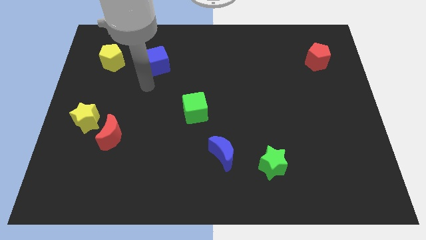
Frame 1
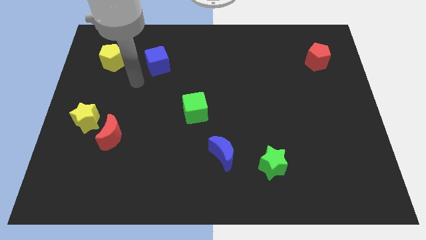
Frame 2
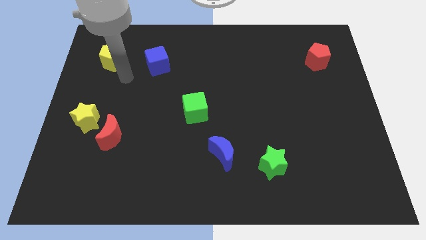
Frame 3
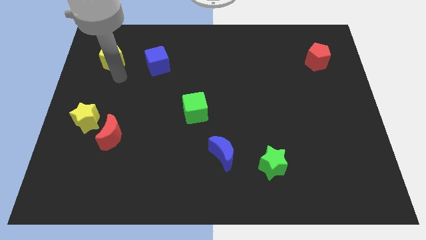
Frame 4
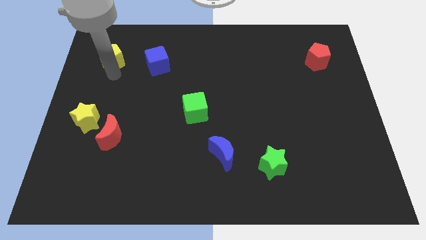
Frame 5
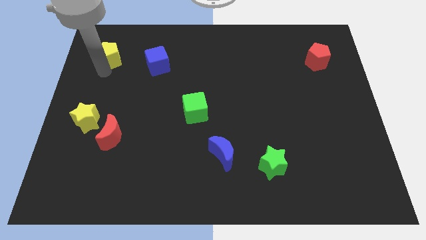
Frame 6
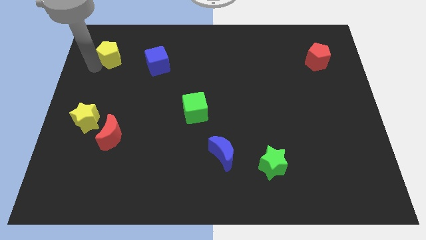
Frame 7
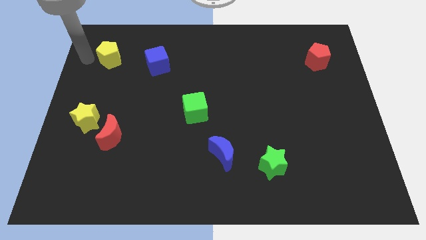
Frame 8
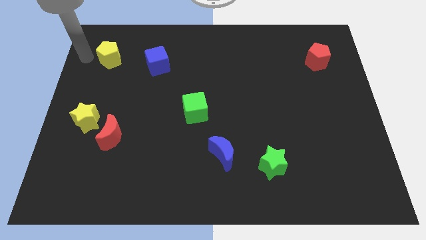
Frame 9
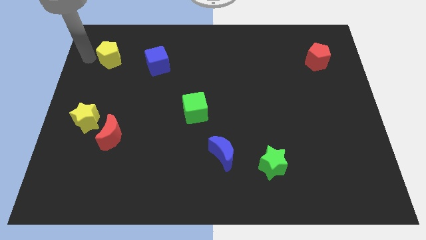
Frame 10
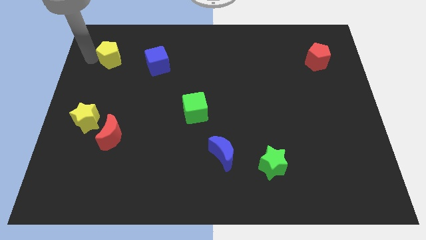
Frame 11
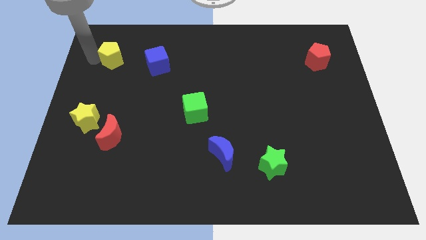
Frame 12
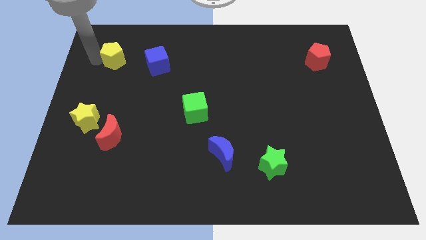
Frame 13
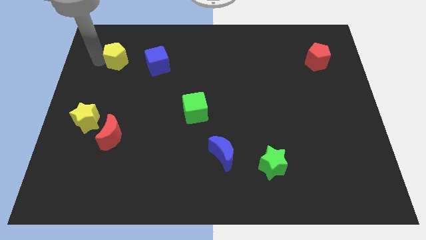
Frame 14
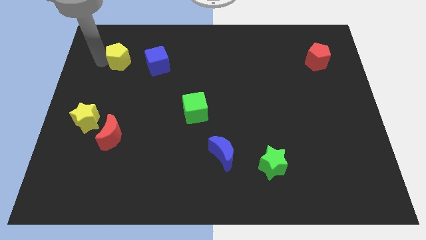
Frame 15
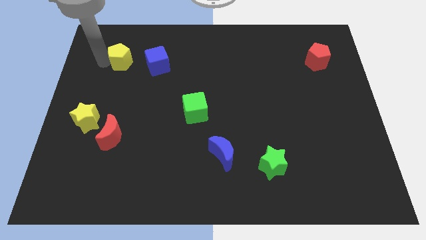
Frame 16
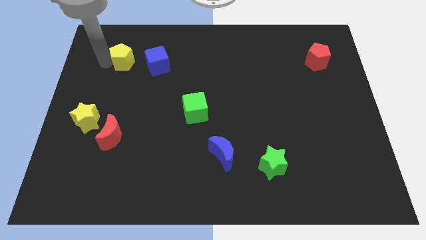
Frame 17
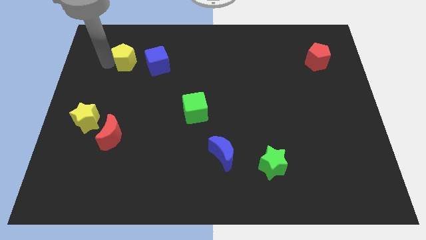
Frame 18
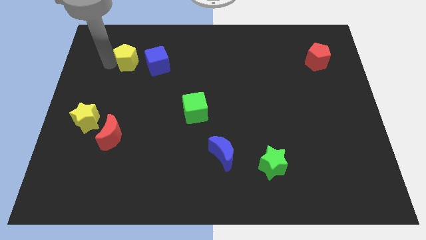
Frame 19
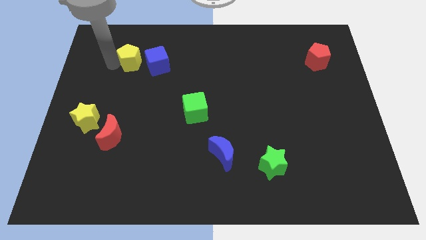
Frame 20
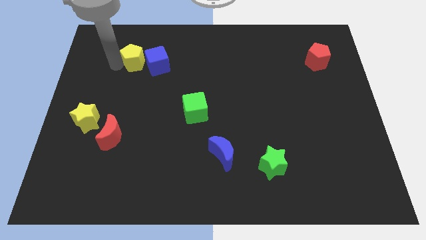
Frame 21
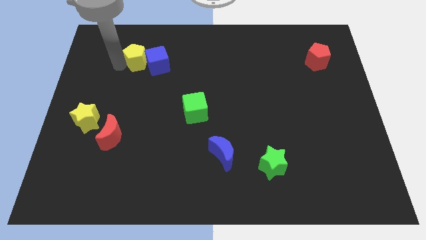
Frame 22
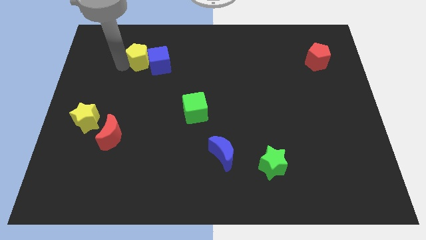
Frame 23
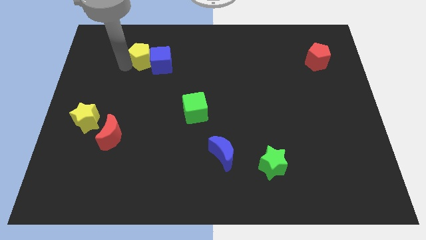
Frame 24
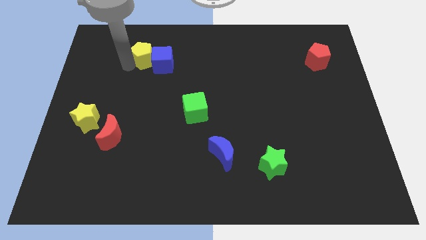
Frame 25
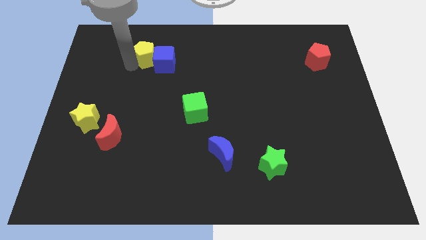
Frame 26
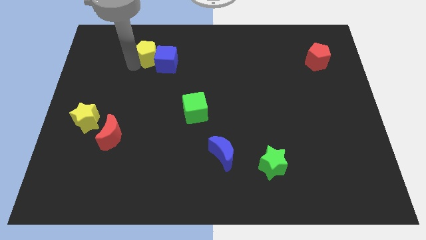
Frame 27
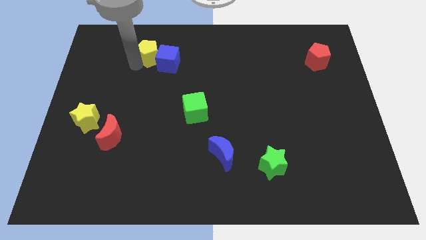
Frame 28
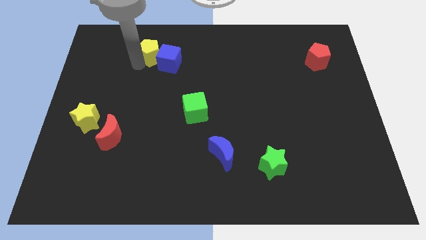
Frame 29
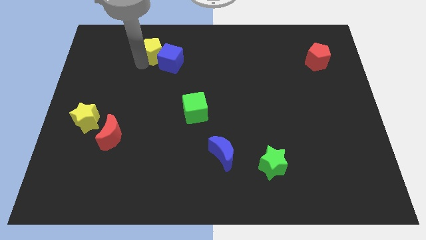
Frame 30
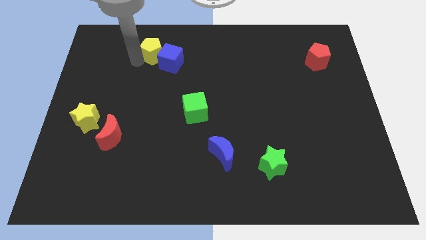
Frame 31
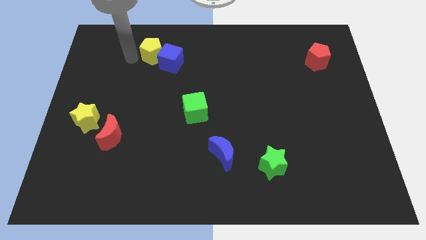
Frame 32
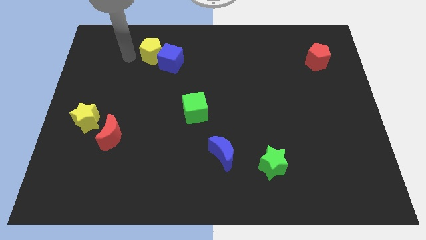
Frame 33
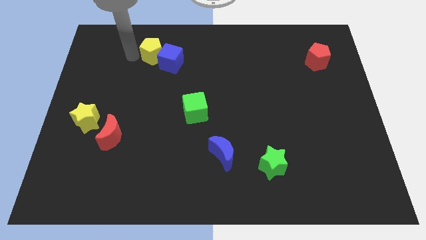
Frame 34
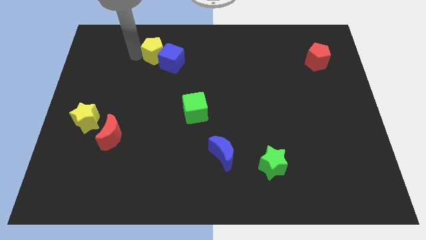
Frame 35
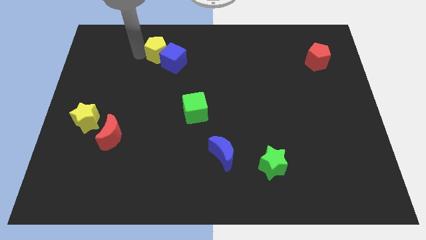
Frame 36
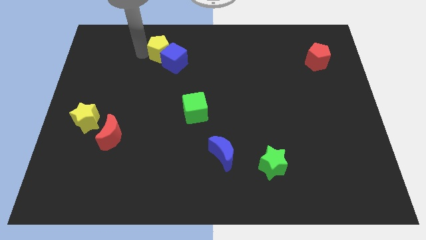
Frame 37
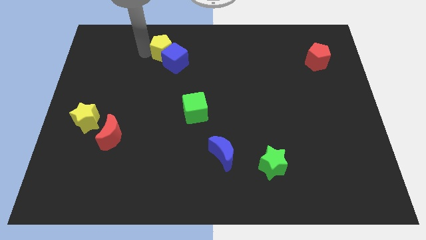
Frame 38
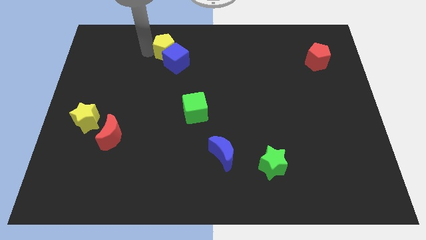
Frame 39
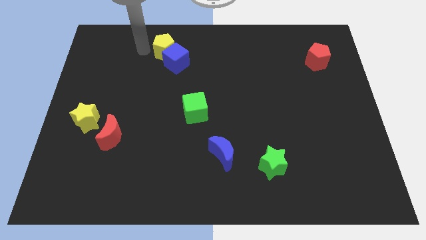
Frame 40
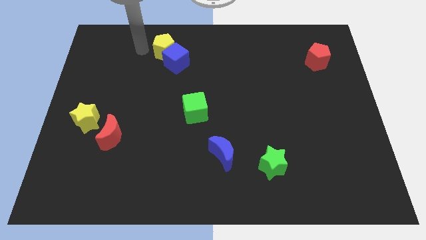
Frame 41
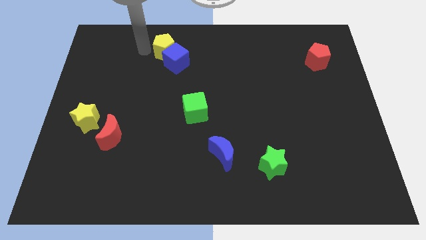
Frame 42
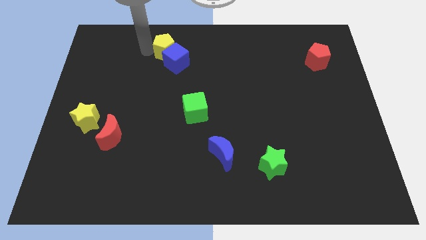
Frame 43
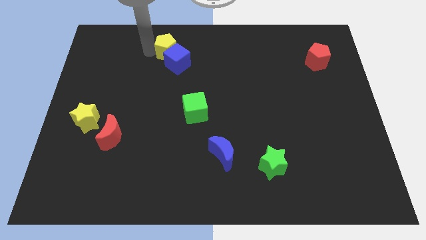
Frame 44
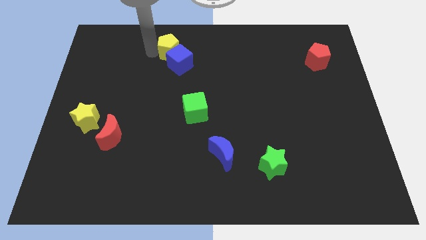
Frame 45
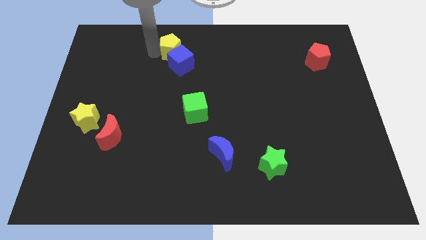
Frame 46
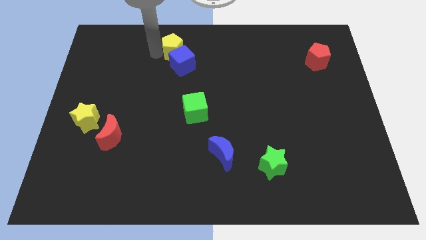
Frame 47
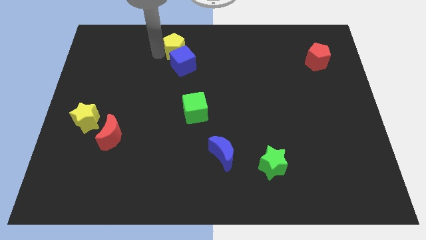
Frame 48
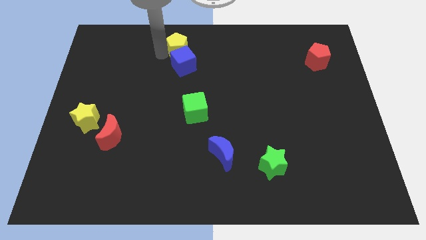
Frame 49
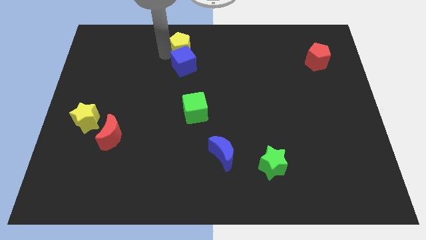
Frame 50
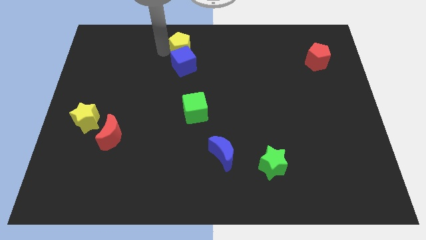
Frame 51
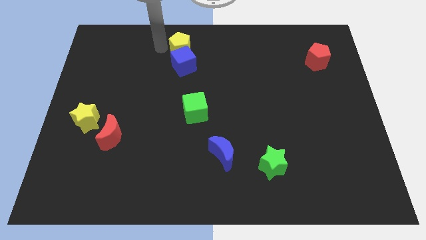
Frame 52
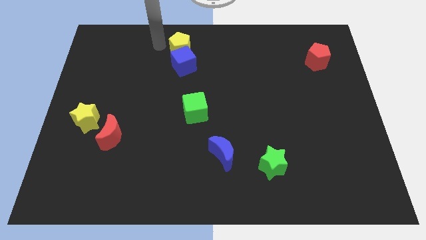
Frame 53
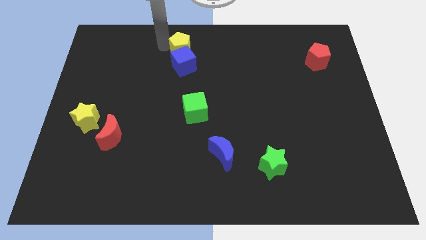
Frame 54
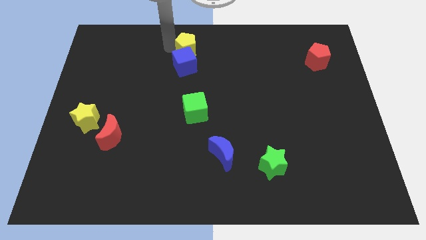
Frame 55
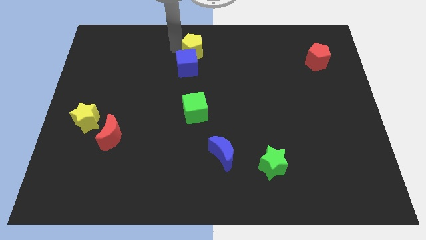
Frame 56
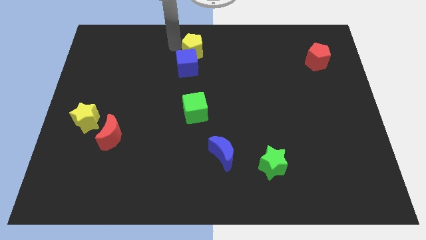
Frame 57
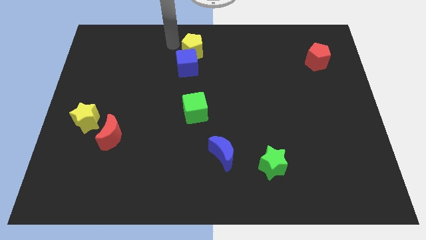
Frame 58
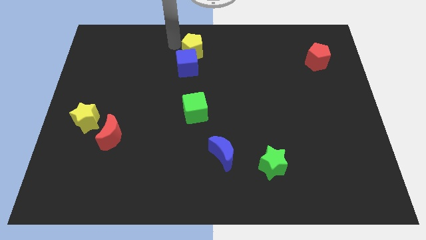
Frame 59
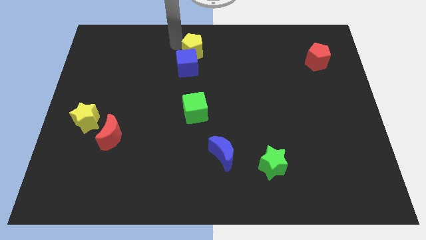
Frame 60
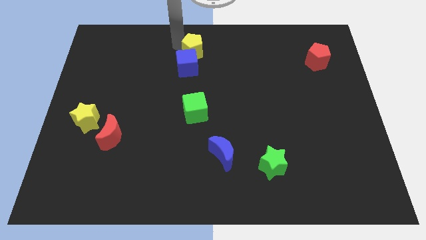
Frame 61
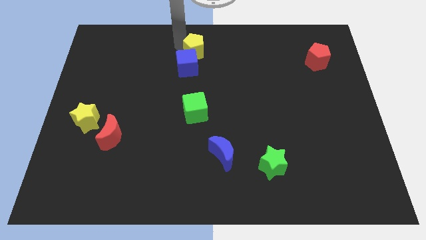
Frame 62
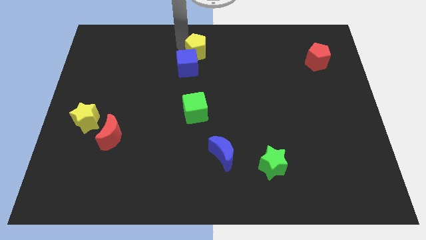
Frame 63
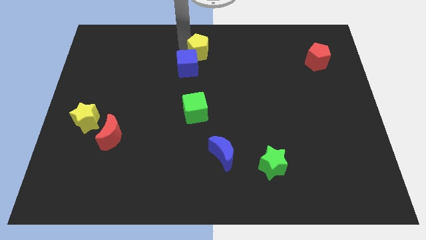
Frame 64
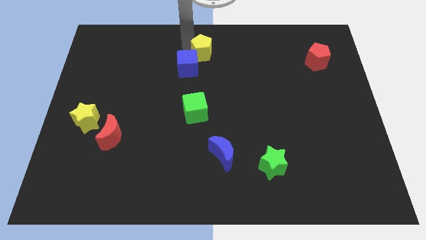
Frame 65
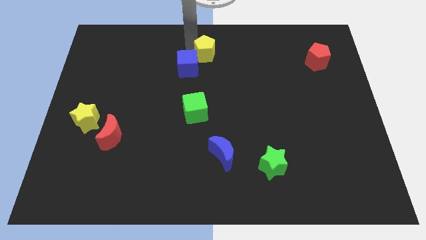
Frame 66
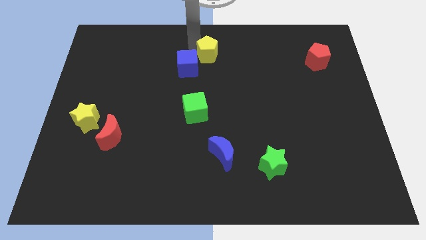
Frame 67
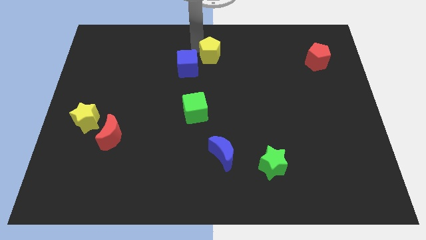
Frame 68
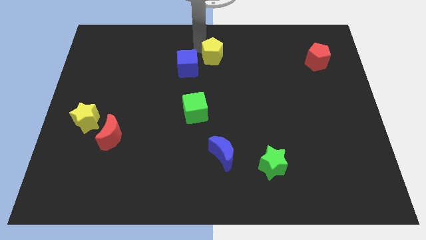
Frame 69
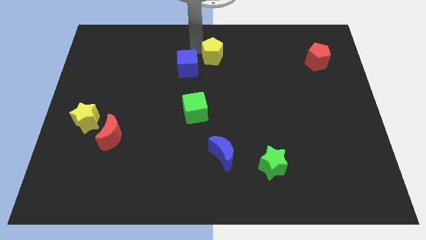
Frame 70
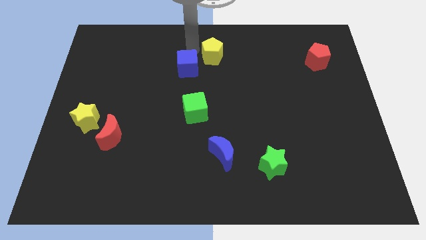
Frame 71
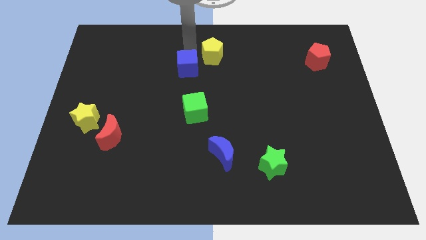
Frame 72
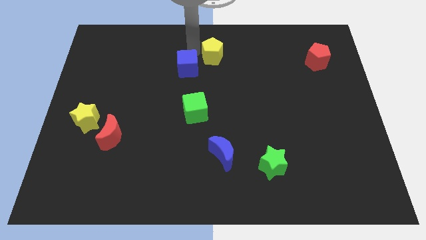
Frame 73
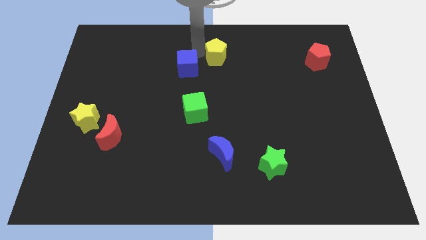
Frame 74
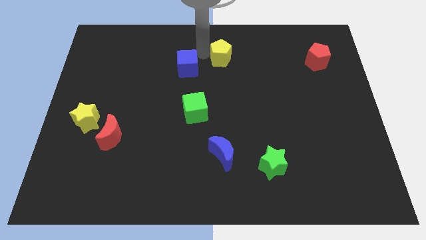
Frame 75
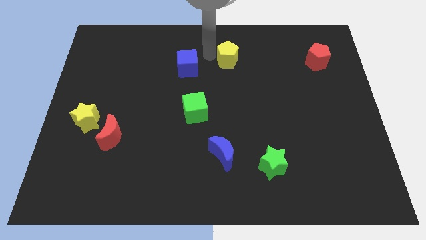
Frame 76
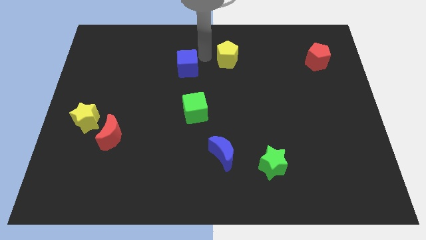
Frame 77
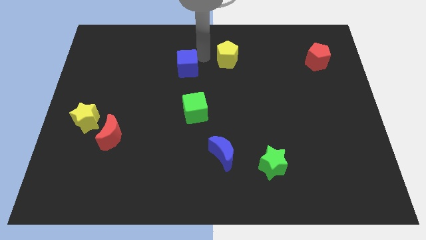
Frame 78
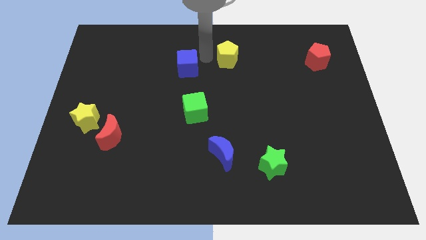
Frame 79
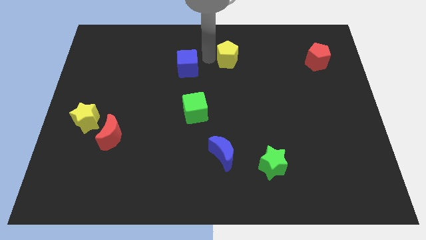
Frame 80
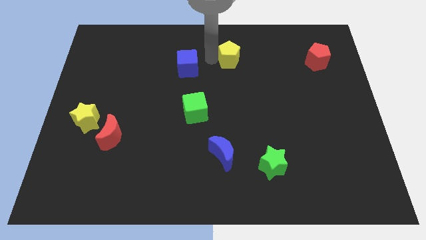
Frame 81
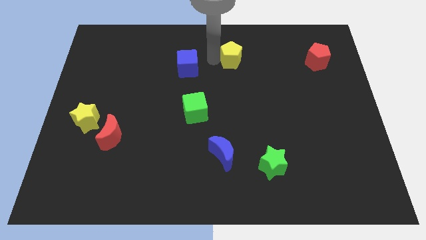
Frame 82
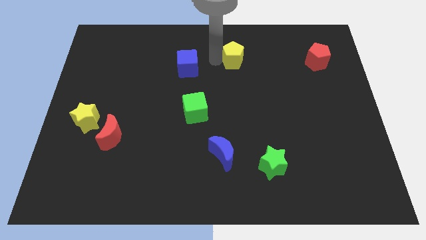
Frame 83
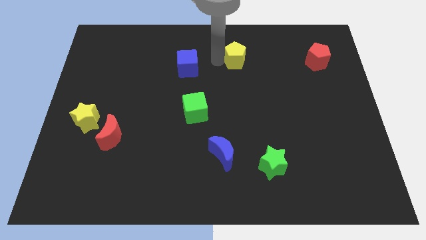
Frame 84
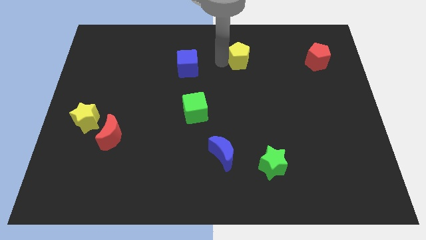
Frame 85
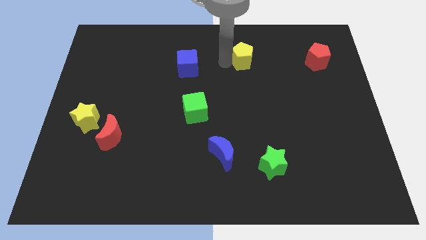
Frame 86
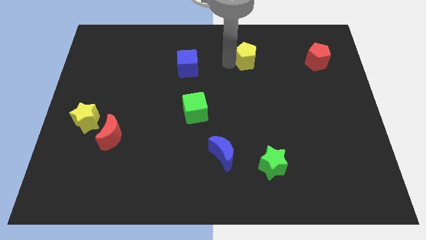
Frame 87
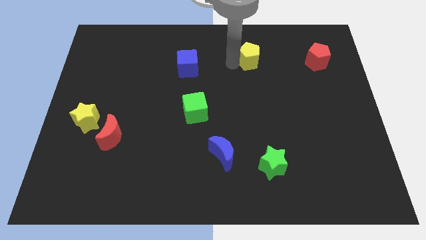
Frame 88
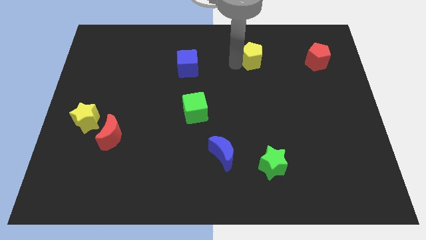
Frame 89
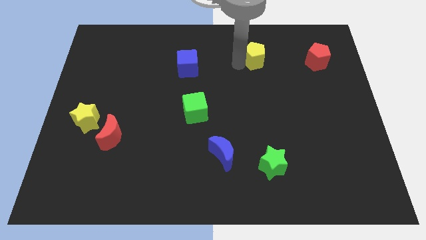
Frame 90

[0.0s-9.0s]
slide the yellow pentagon to the left of the red pentagon
